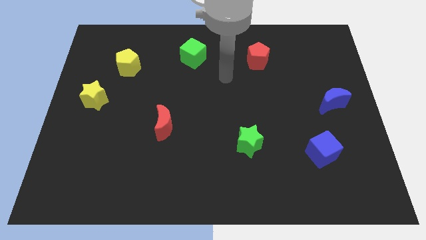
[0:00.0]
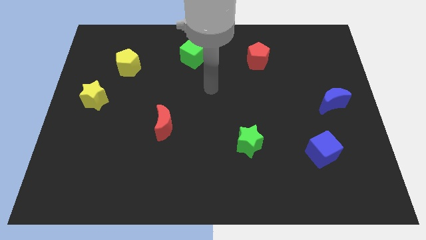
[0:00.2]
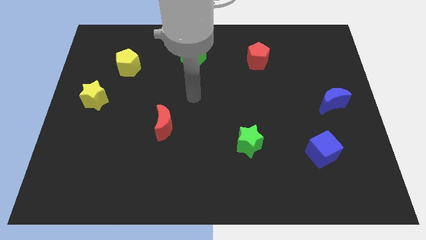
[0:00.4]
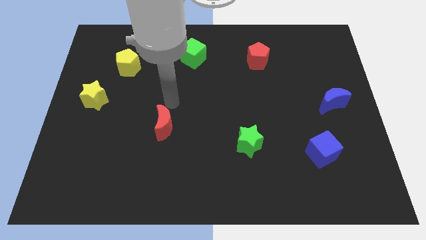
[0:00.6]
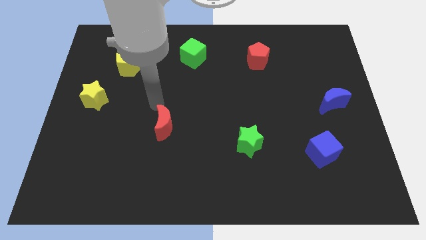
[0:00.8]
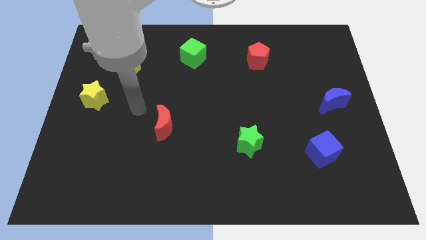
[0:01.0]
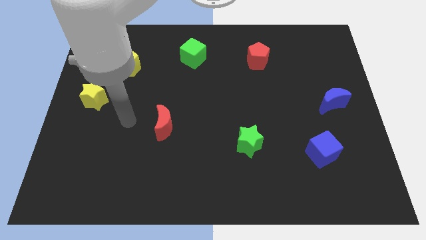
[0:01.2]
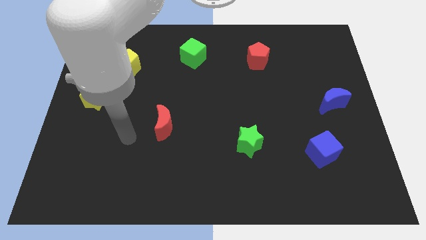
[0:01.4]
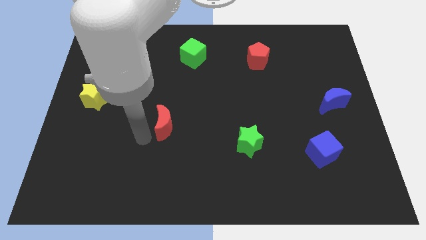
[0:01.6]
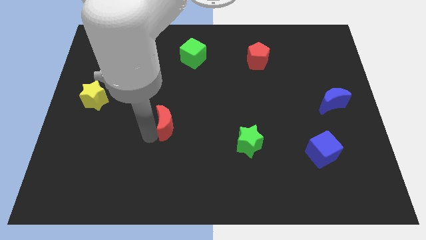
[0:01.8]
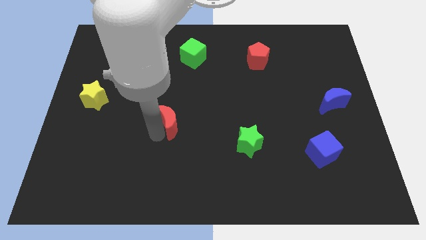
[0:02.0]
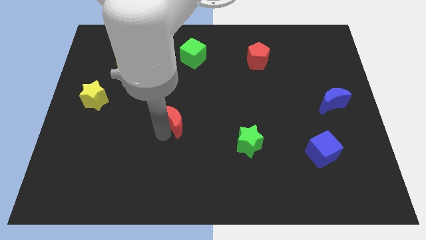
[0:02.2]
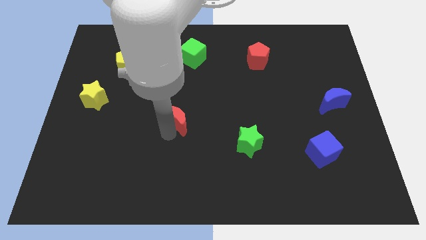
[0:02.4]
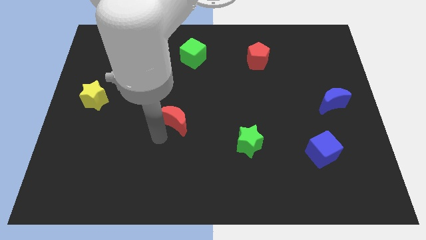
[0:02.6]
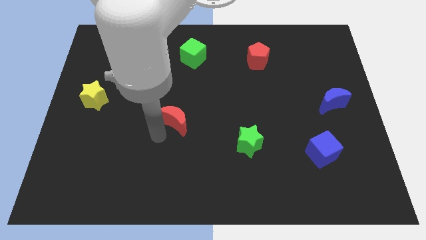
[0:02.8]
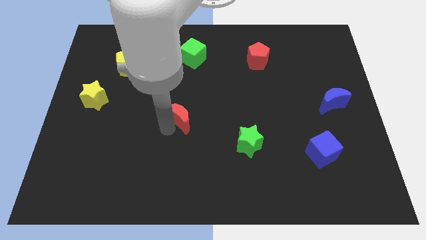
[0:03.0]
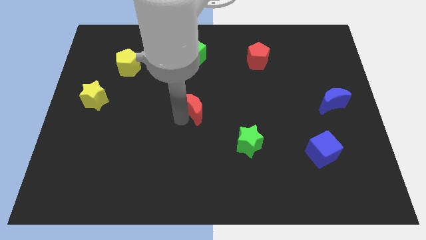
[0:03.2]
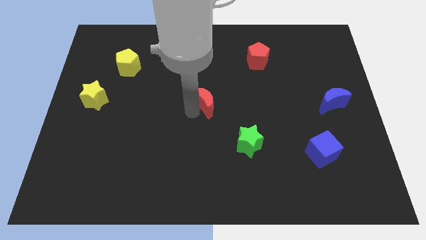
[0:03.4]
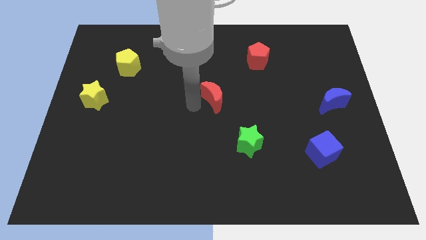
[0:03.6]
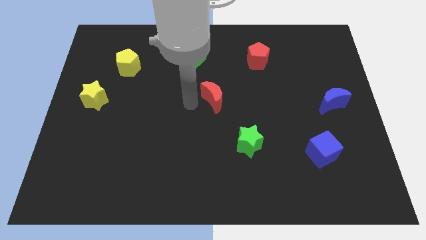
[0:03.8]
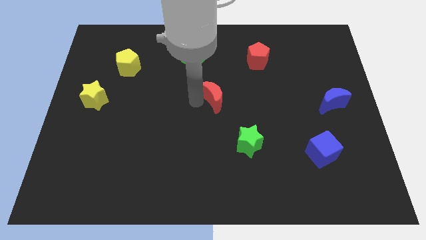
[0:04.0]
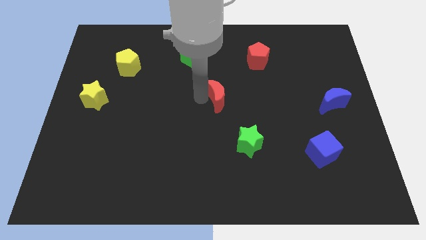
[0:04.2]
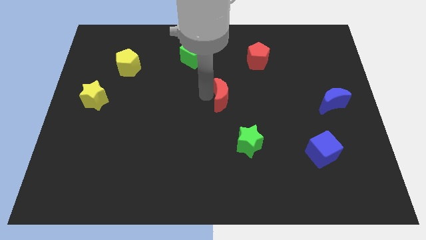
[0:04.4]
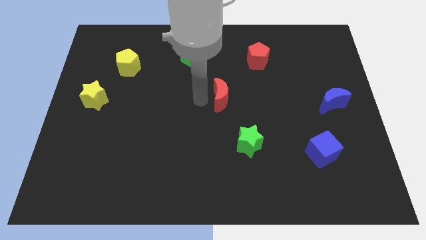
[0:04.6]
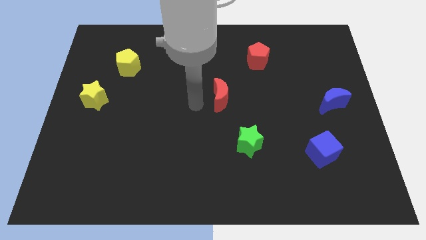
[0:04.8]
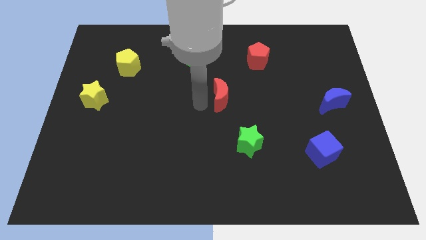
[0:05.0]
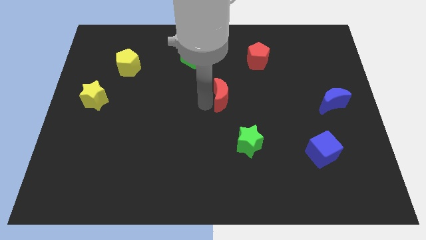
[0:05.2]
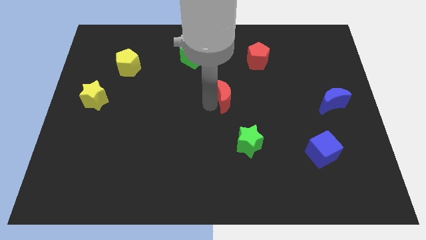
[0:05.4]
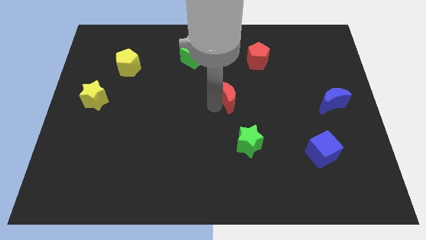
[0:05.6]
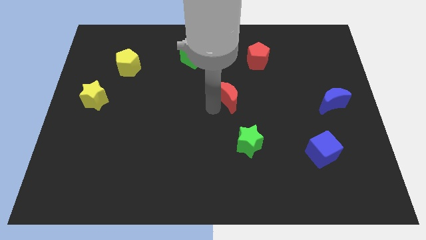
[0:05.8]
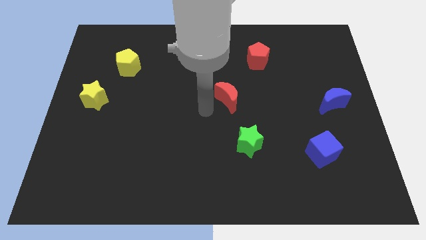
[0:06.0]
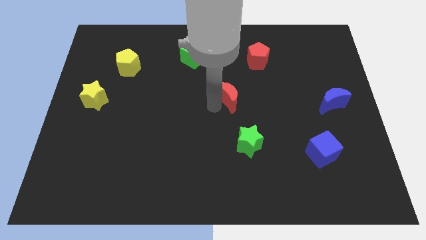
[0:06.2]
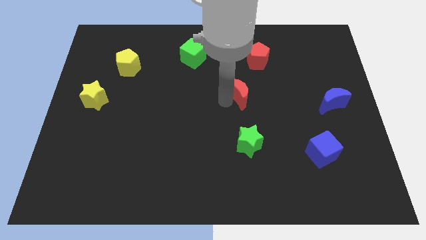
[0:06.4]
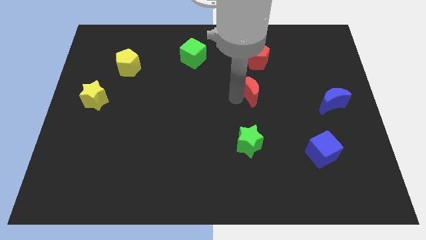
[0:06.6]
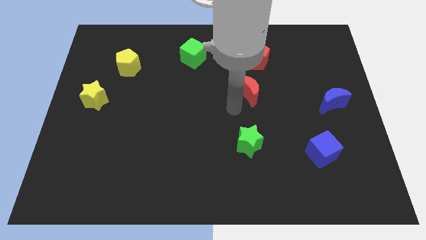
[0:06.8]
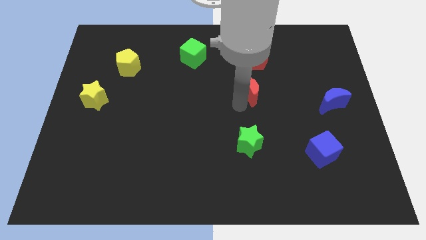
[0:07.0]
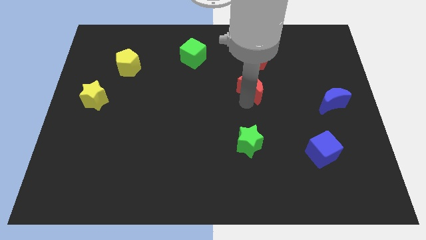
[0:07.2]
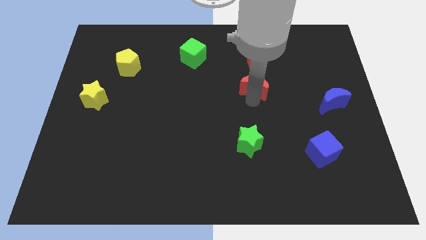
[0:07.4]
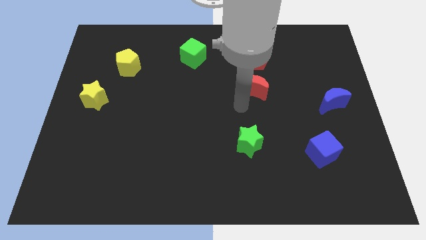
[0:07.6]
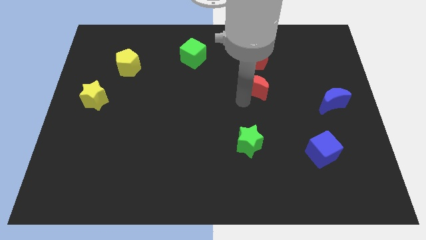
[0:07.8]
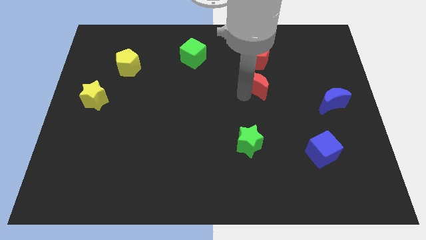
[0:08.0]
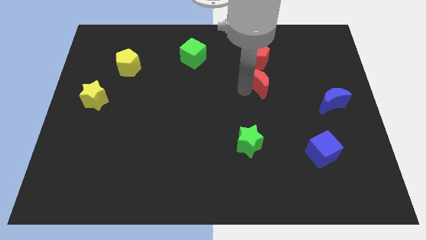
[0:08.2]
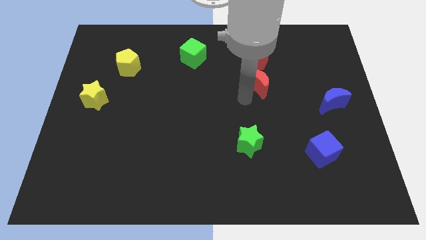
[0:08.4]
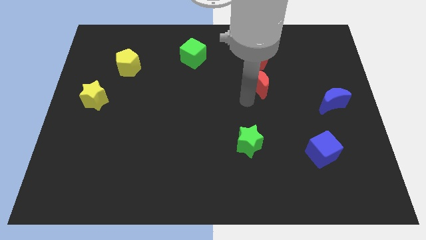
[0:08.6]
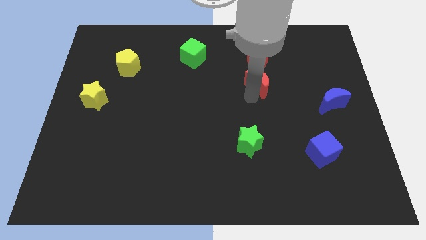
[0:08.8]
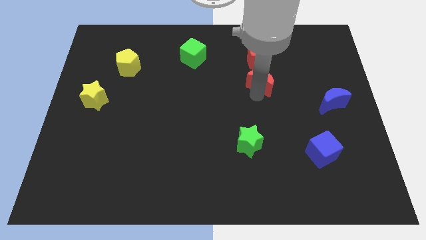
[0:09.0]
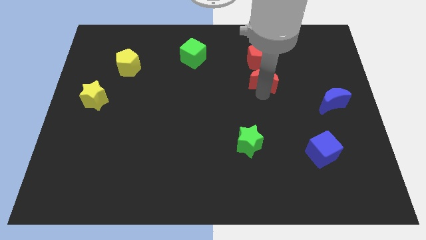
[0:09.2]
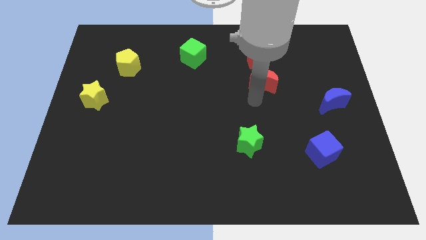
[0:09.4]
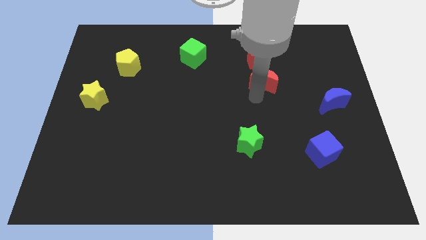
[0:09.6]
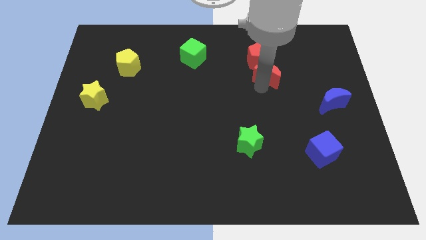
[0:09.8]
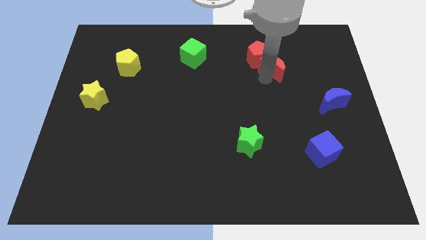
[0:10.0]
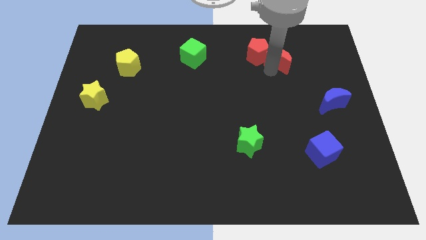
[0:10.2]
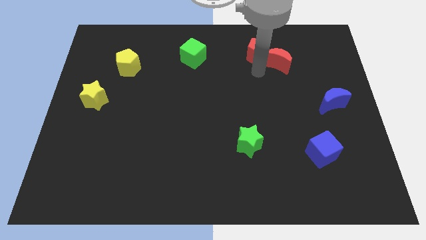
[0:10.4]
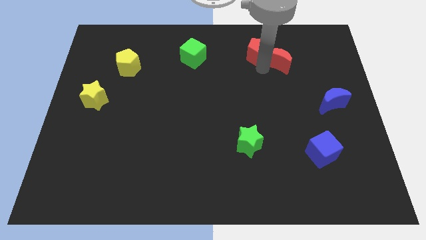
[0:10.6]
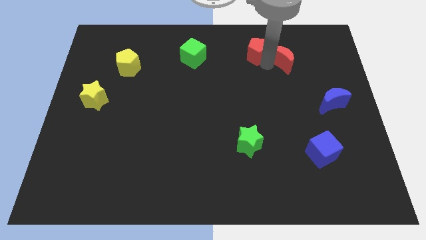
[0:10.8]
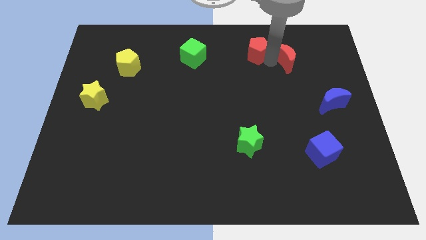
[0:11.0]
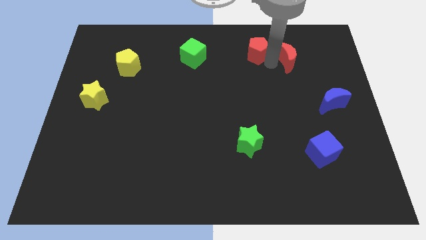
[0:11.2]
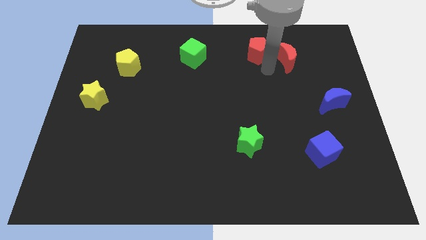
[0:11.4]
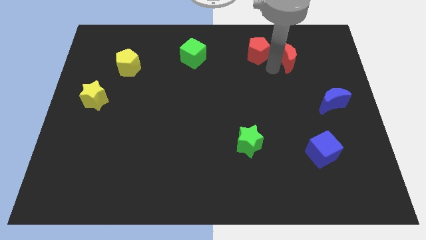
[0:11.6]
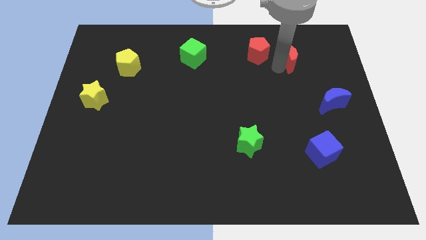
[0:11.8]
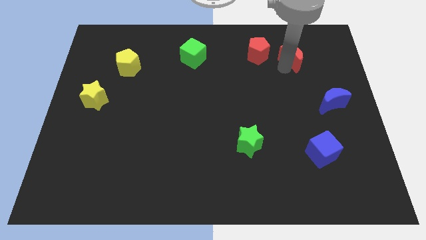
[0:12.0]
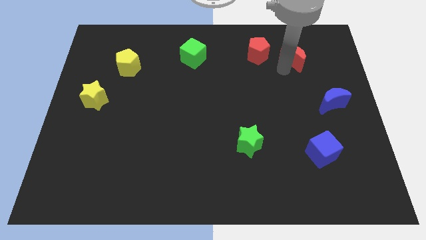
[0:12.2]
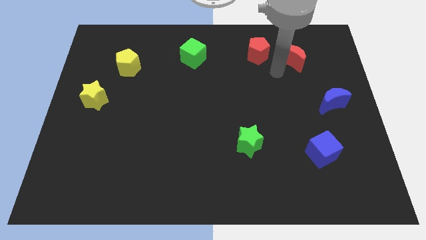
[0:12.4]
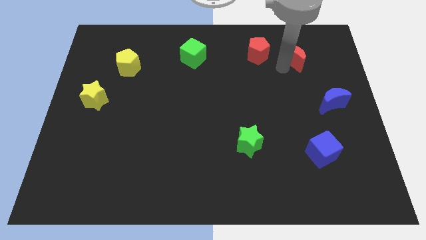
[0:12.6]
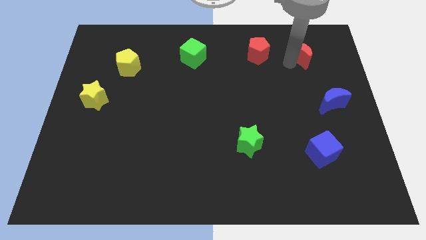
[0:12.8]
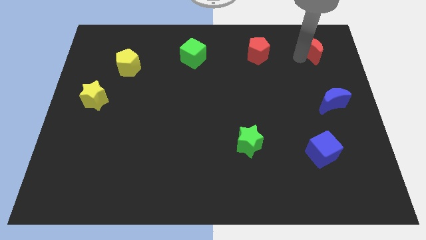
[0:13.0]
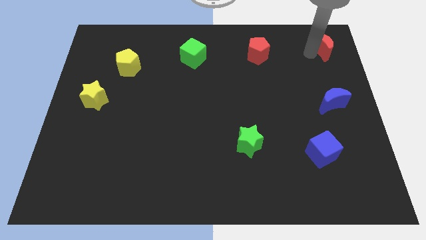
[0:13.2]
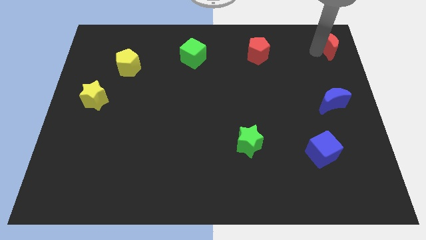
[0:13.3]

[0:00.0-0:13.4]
slide the red moon to the top right corner
